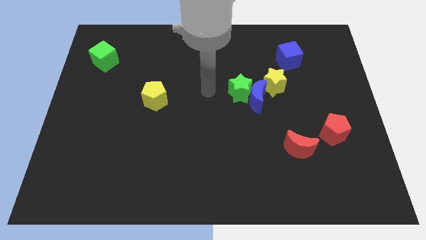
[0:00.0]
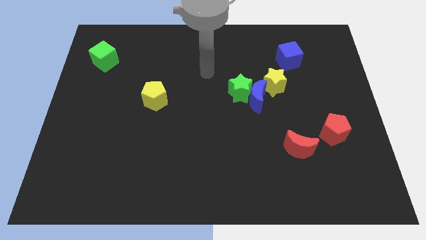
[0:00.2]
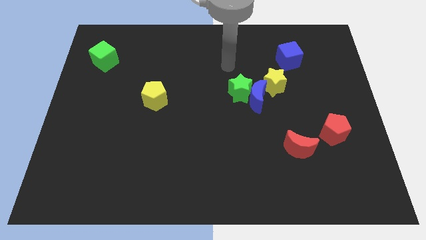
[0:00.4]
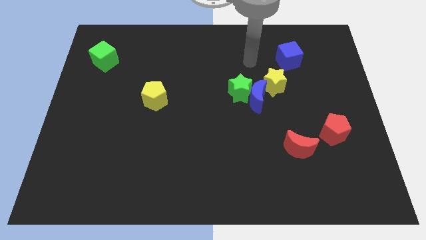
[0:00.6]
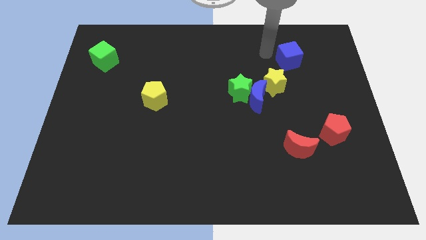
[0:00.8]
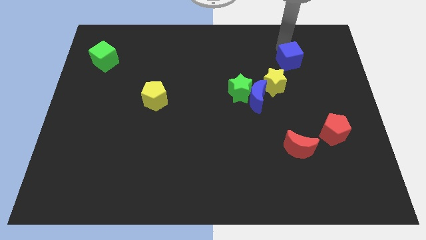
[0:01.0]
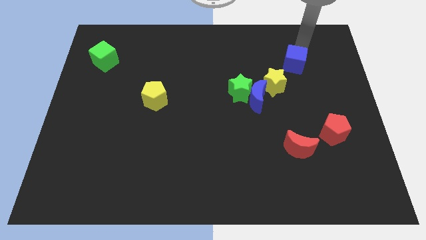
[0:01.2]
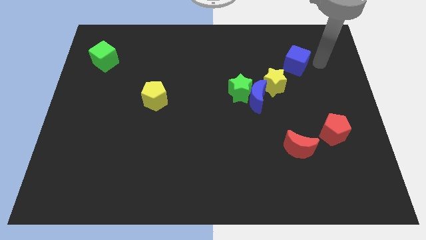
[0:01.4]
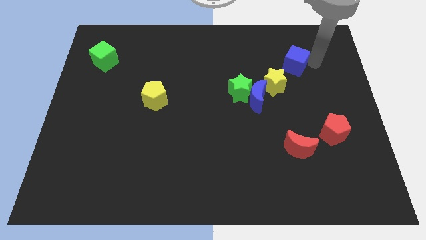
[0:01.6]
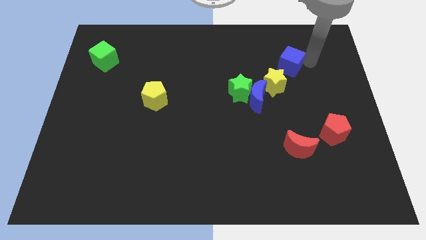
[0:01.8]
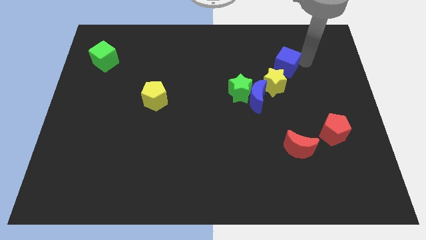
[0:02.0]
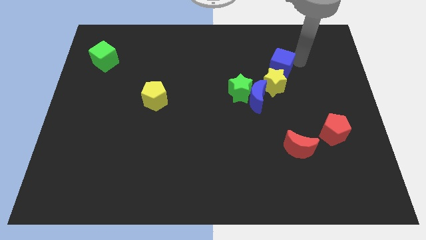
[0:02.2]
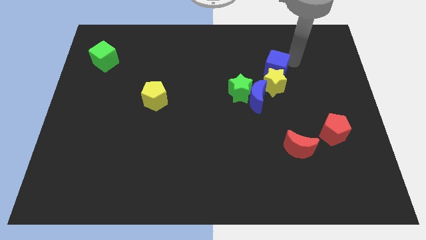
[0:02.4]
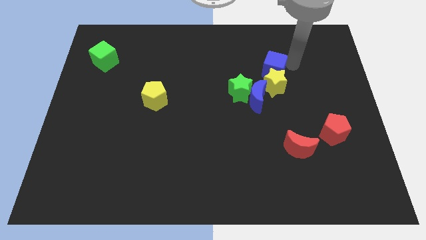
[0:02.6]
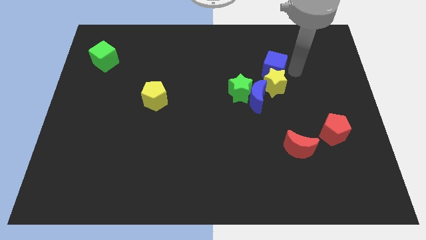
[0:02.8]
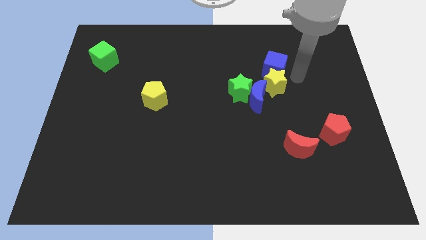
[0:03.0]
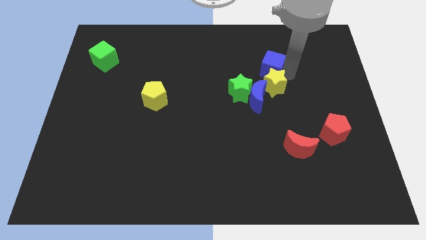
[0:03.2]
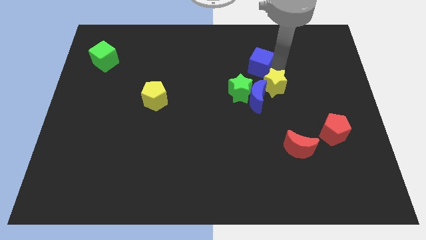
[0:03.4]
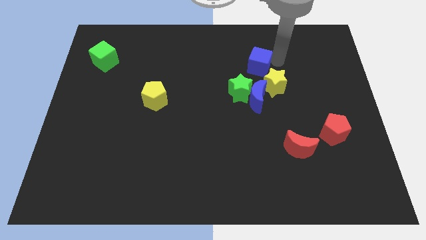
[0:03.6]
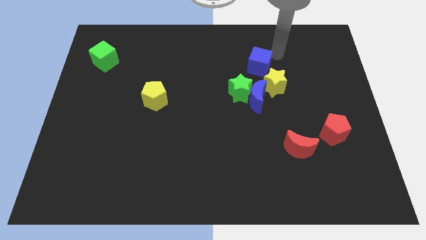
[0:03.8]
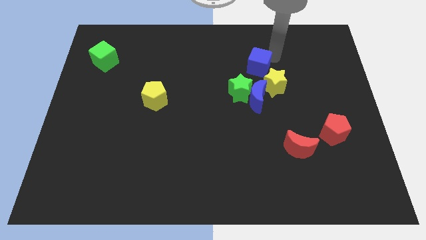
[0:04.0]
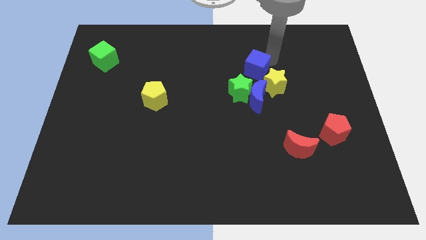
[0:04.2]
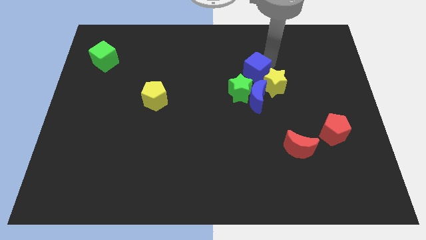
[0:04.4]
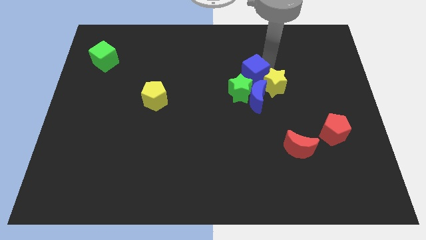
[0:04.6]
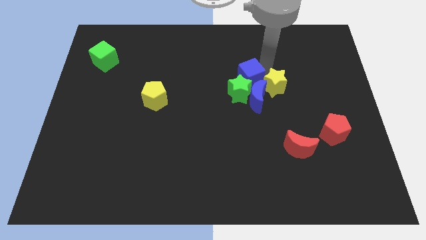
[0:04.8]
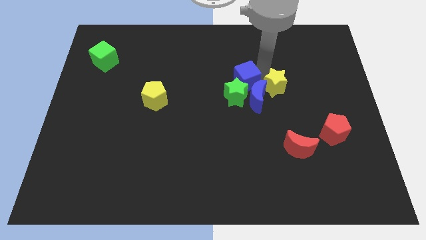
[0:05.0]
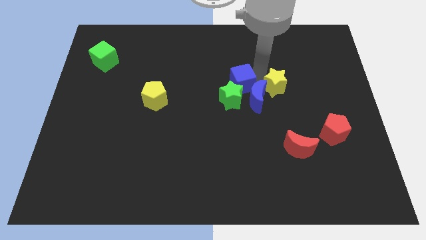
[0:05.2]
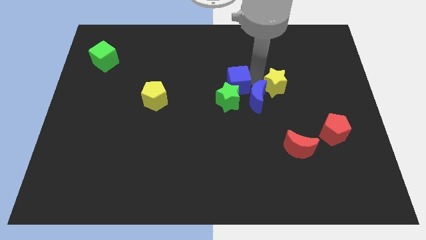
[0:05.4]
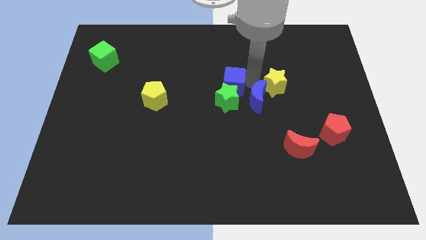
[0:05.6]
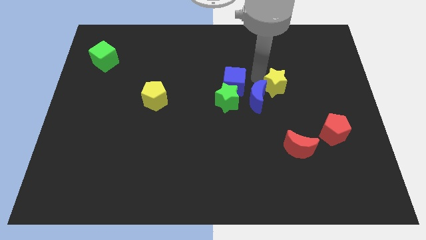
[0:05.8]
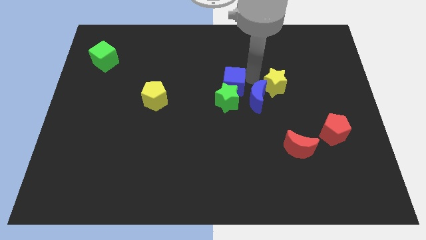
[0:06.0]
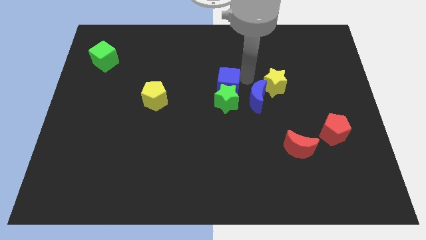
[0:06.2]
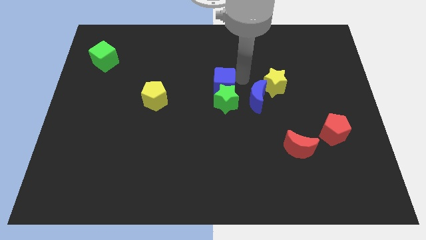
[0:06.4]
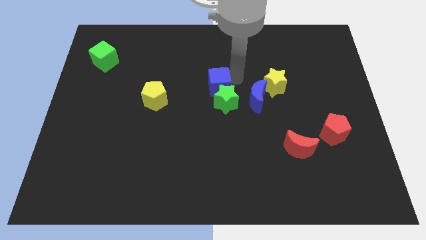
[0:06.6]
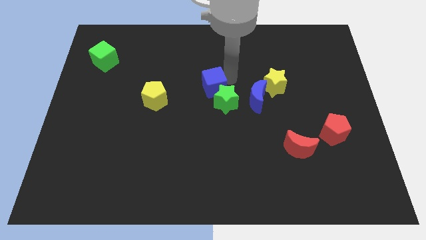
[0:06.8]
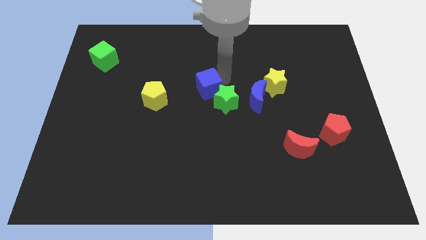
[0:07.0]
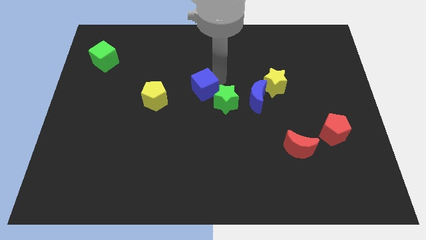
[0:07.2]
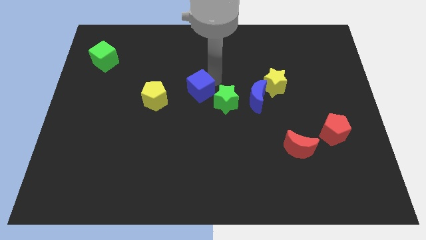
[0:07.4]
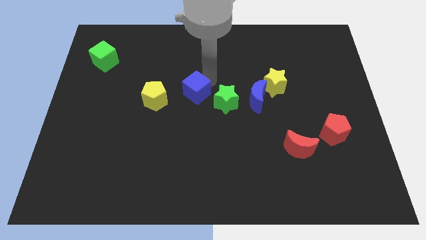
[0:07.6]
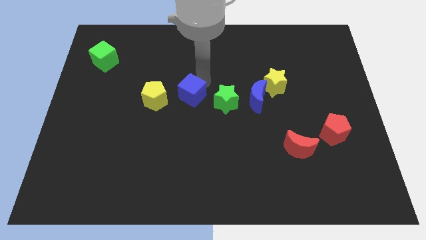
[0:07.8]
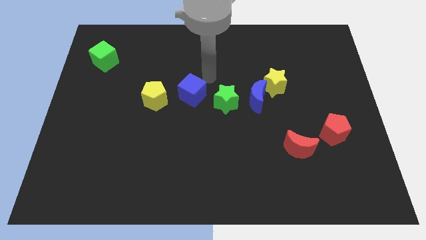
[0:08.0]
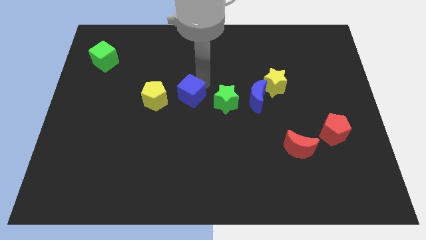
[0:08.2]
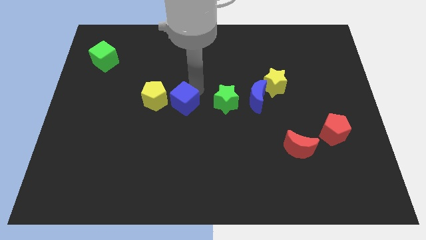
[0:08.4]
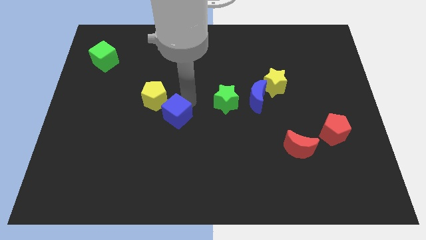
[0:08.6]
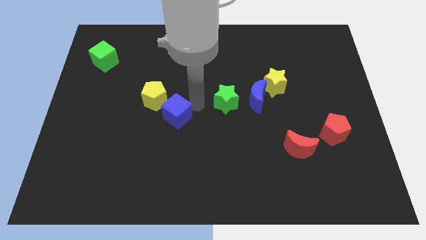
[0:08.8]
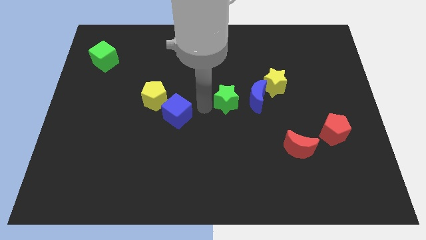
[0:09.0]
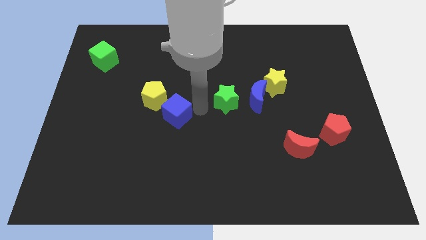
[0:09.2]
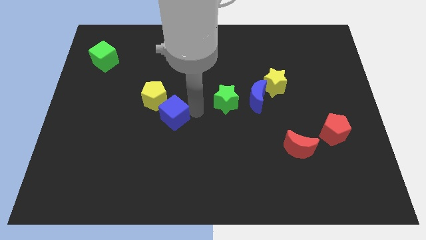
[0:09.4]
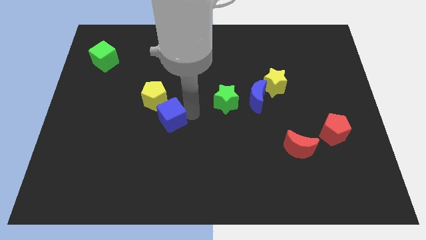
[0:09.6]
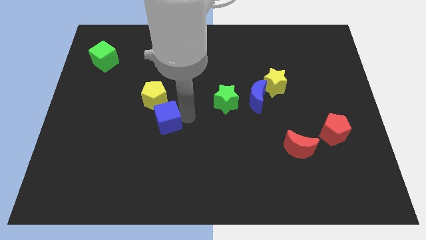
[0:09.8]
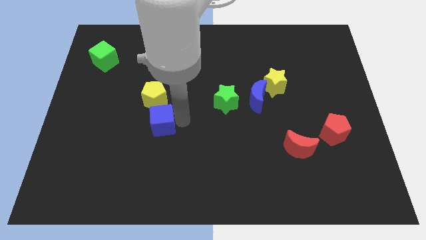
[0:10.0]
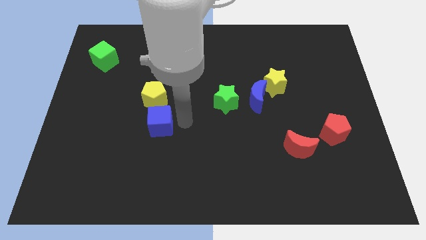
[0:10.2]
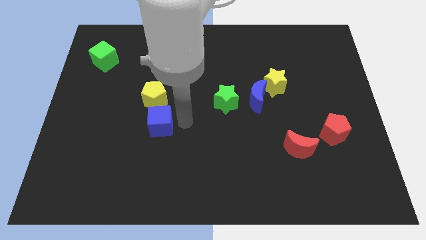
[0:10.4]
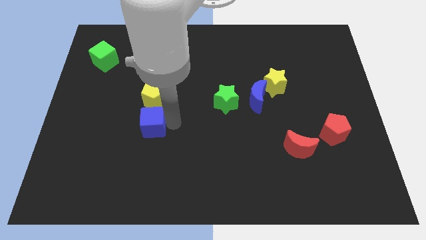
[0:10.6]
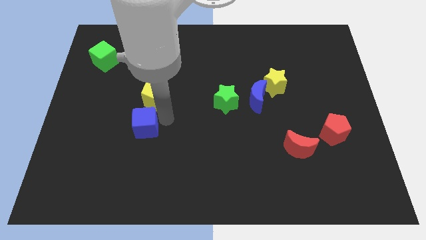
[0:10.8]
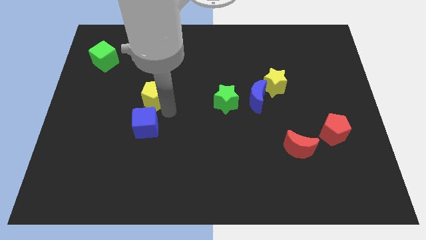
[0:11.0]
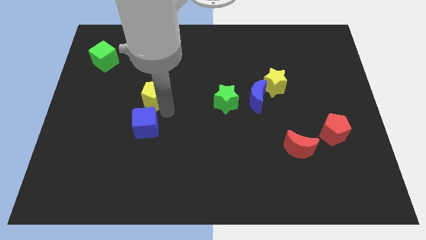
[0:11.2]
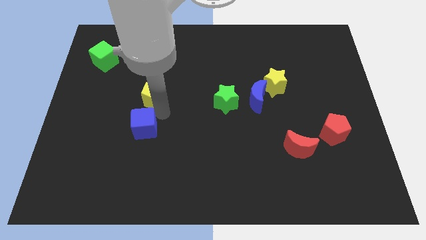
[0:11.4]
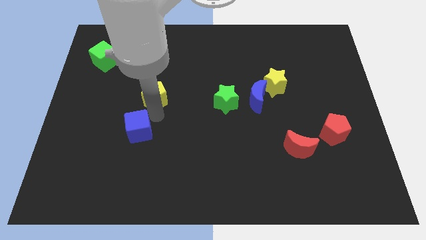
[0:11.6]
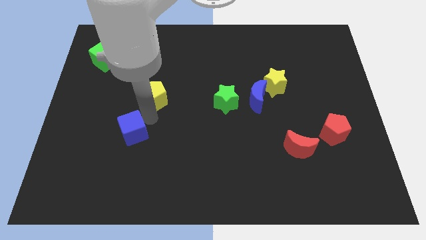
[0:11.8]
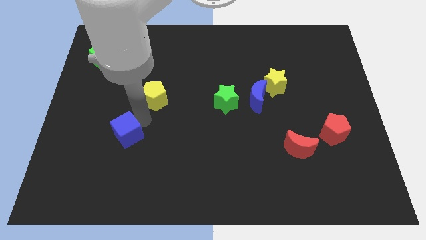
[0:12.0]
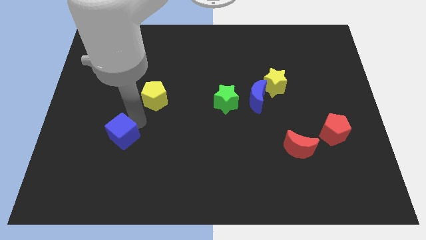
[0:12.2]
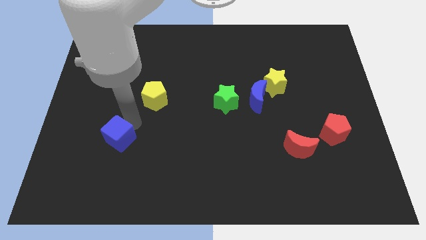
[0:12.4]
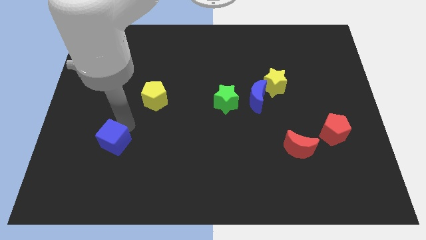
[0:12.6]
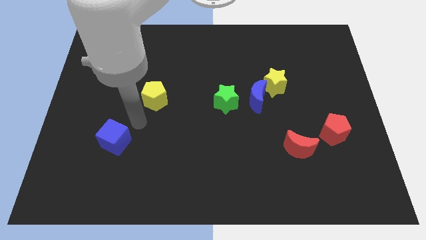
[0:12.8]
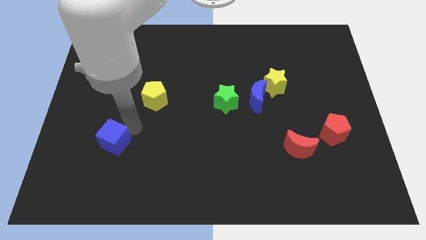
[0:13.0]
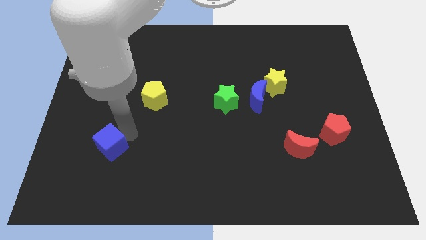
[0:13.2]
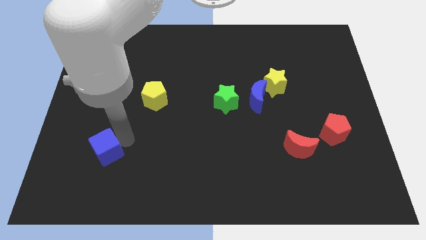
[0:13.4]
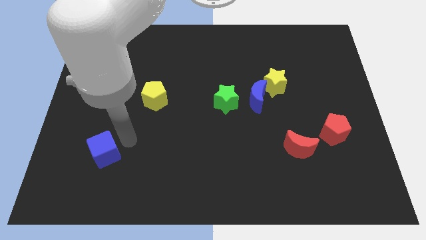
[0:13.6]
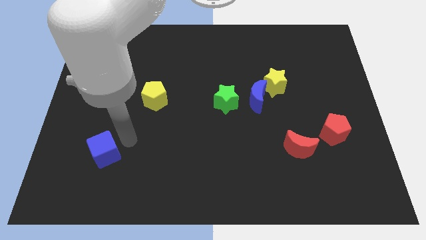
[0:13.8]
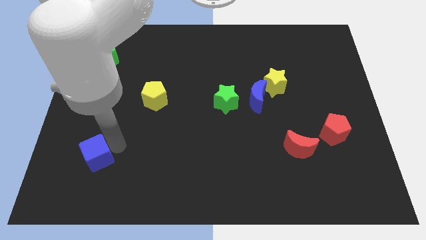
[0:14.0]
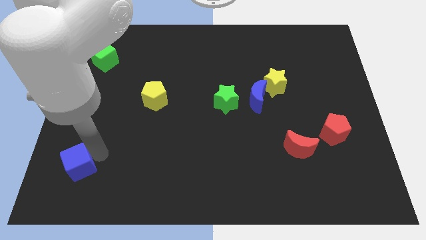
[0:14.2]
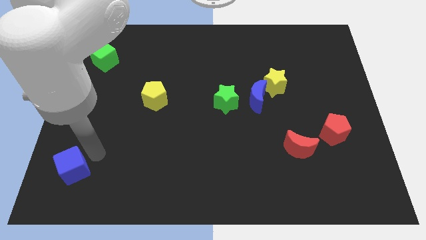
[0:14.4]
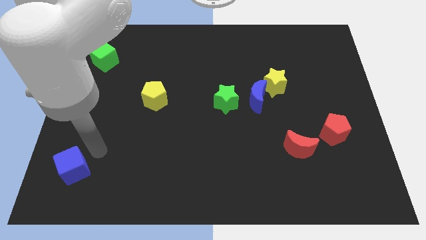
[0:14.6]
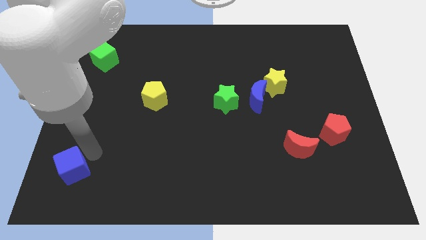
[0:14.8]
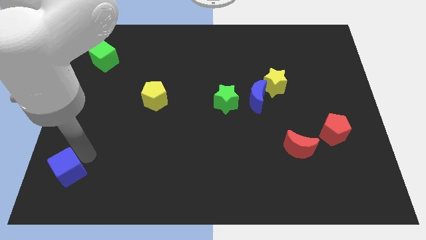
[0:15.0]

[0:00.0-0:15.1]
put the blue cube to the bottom left
